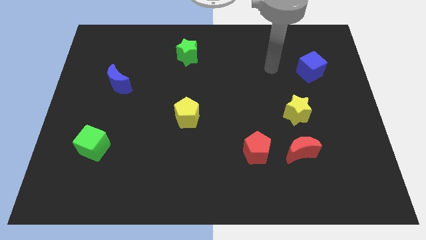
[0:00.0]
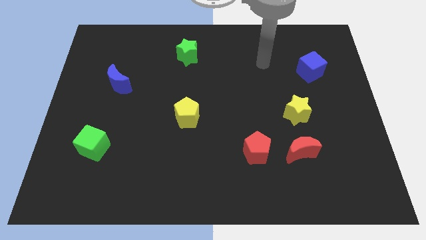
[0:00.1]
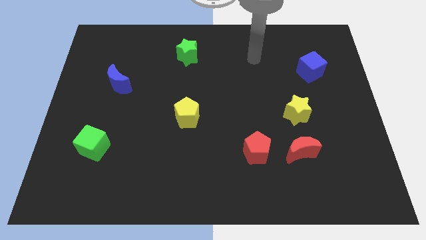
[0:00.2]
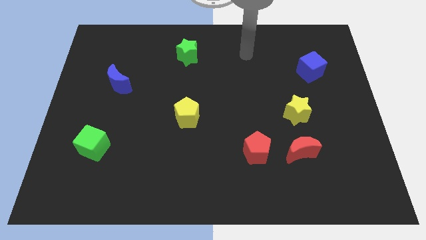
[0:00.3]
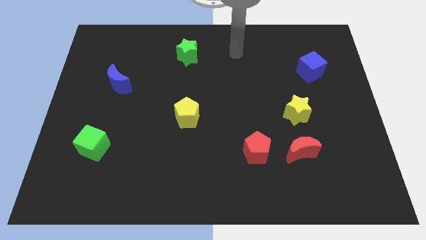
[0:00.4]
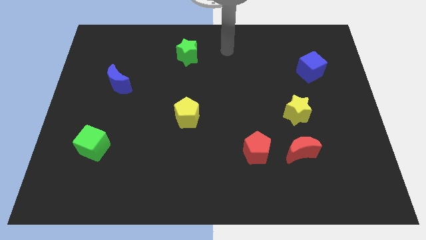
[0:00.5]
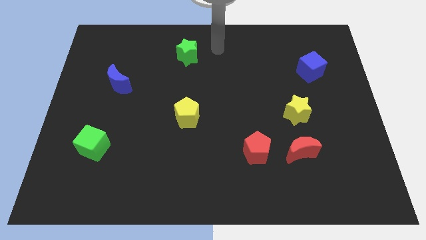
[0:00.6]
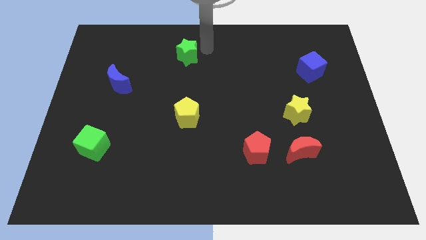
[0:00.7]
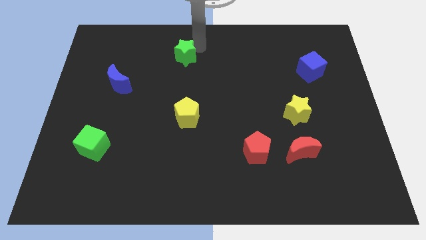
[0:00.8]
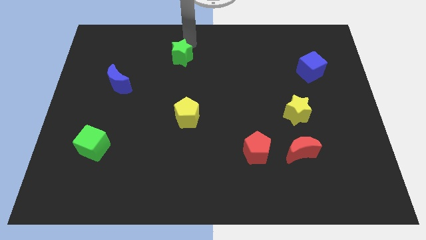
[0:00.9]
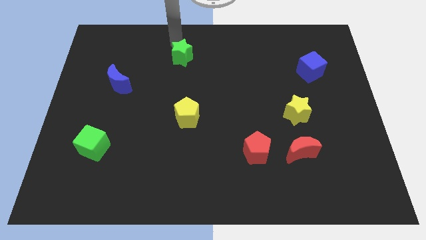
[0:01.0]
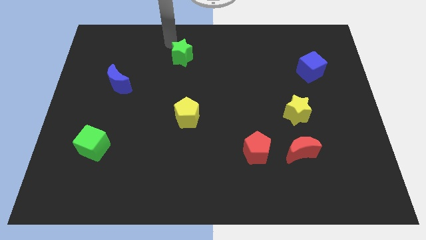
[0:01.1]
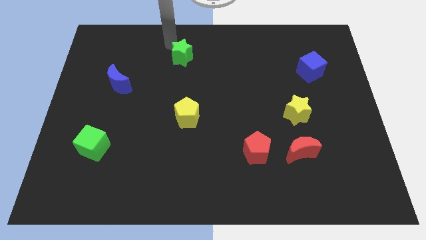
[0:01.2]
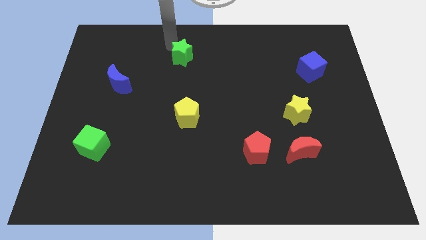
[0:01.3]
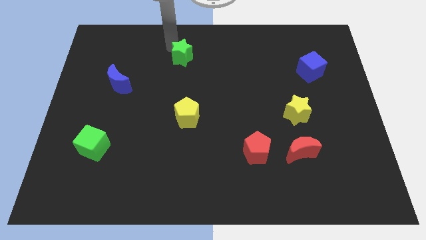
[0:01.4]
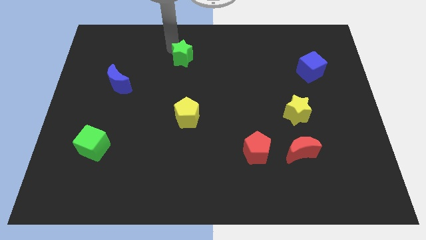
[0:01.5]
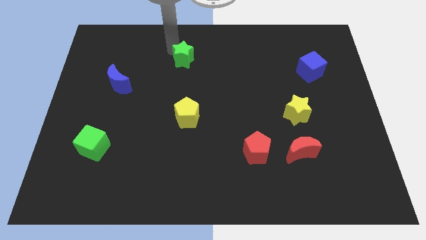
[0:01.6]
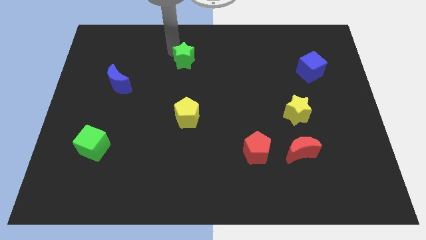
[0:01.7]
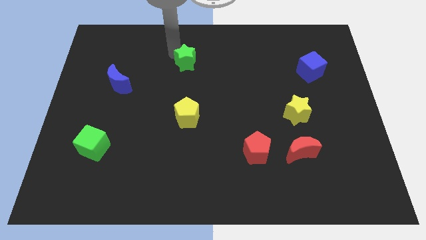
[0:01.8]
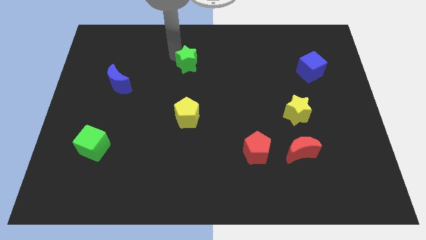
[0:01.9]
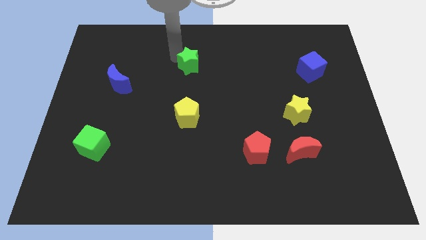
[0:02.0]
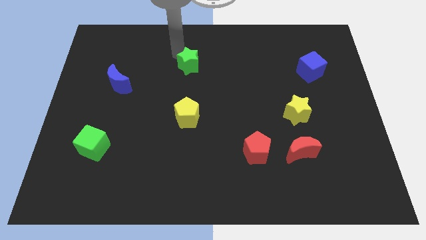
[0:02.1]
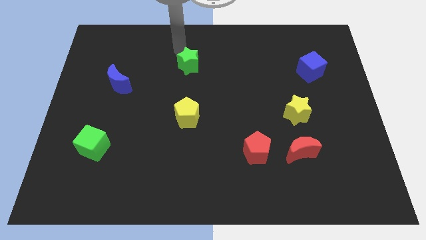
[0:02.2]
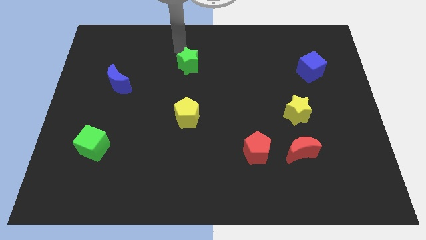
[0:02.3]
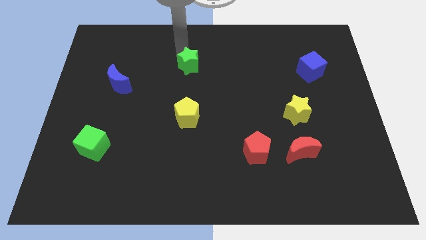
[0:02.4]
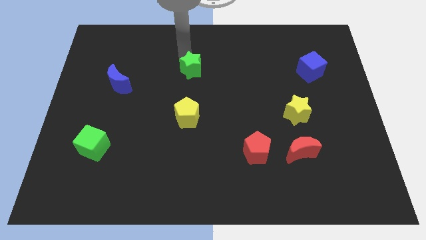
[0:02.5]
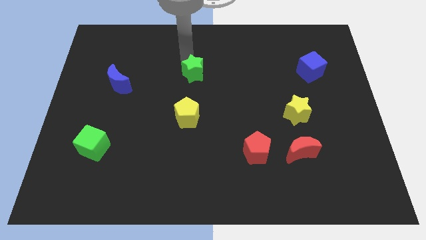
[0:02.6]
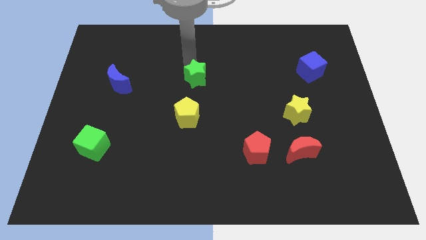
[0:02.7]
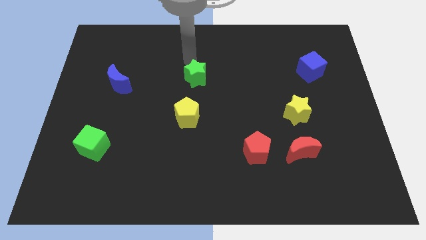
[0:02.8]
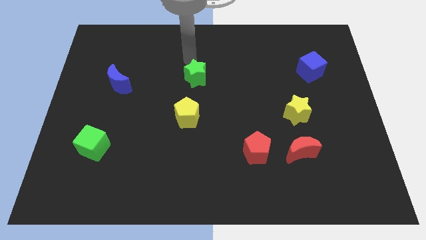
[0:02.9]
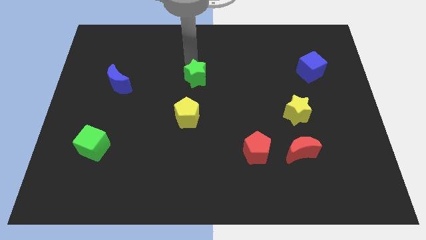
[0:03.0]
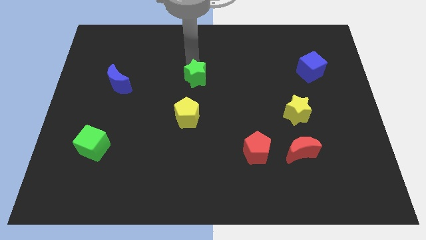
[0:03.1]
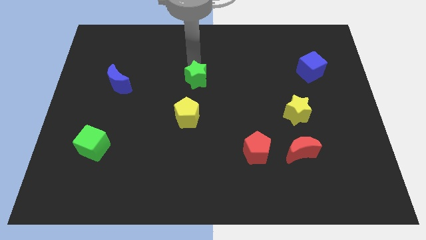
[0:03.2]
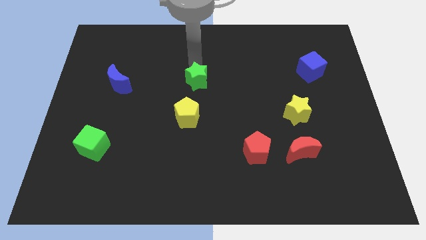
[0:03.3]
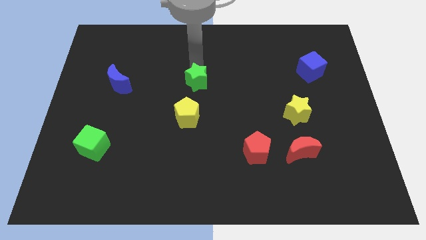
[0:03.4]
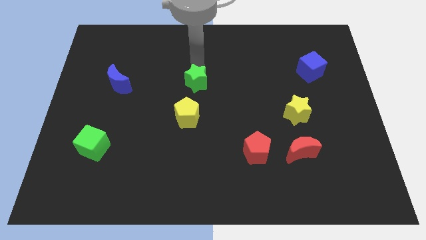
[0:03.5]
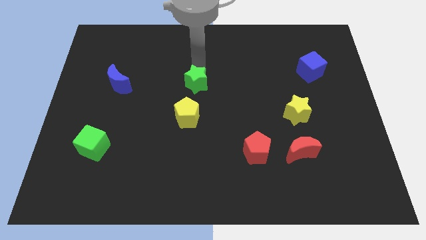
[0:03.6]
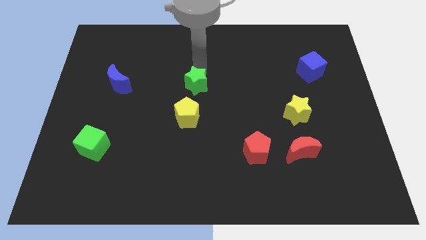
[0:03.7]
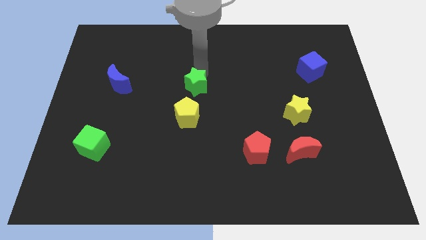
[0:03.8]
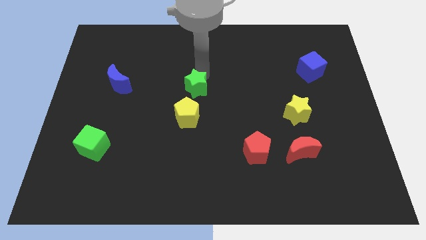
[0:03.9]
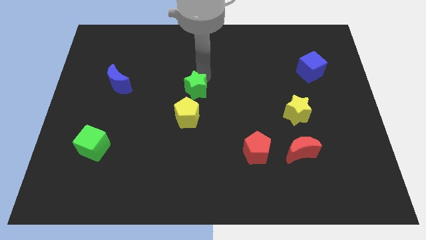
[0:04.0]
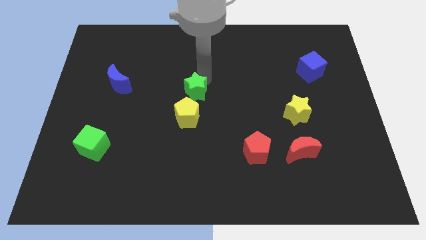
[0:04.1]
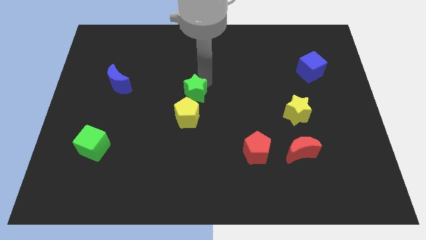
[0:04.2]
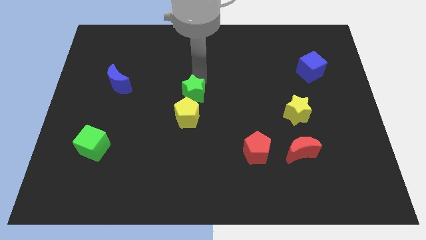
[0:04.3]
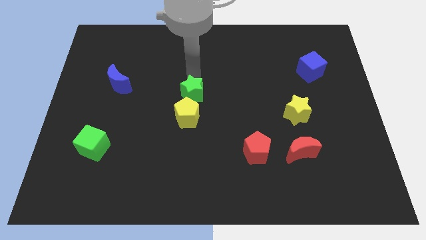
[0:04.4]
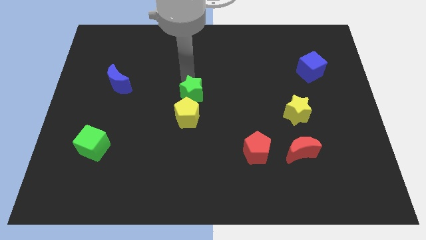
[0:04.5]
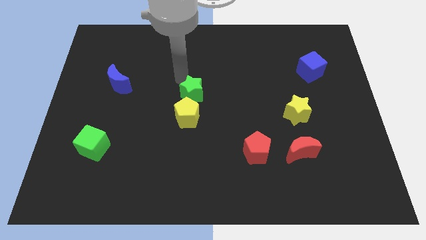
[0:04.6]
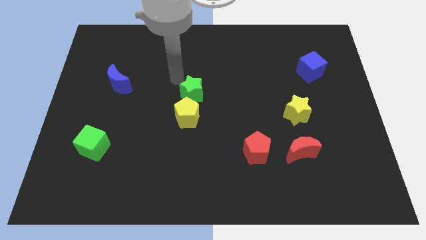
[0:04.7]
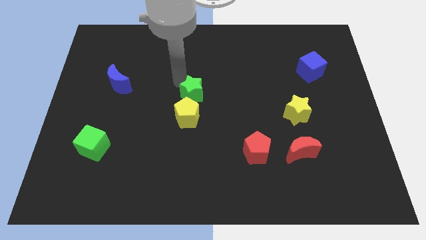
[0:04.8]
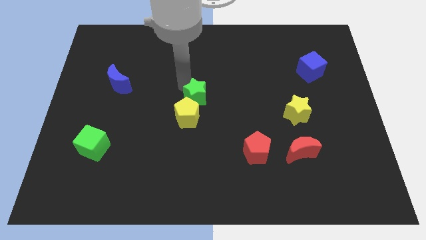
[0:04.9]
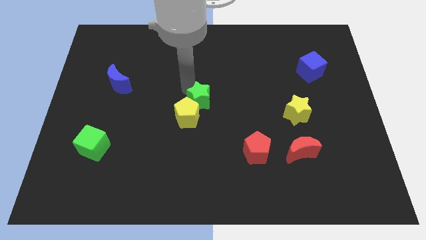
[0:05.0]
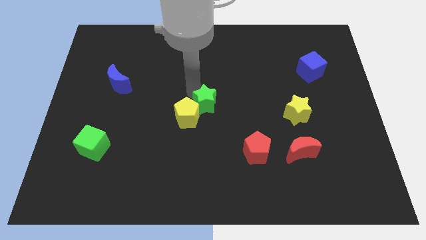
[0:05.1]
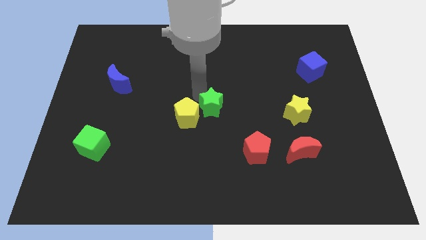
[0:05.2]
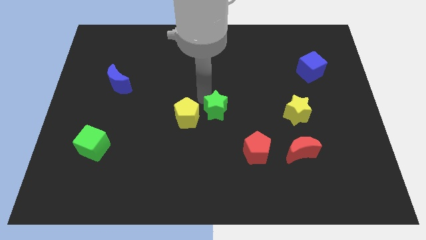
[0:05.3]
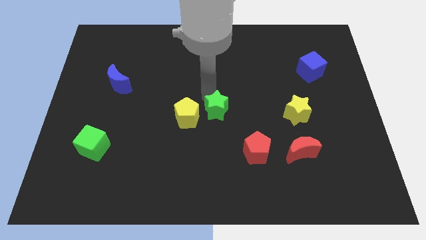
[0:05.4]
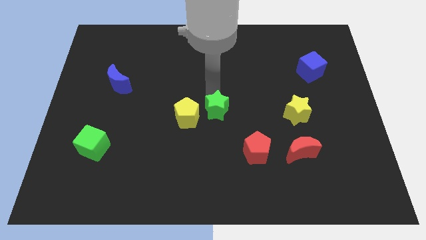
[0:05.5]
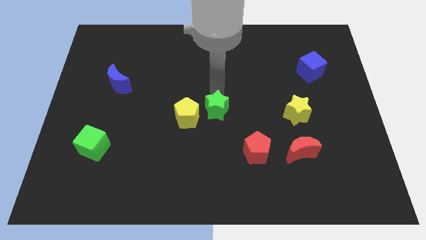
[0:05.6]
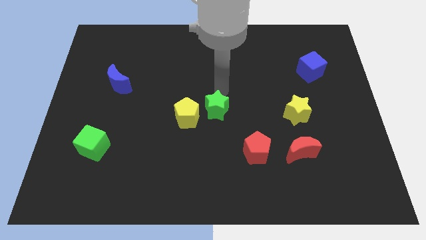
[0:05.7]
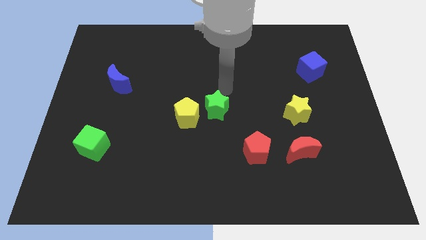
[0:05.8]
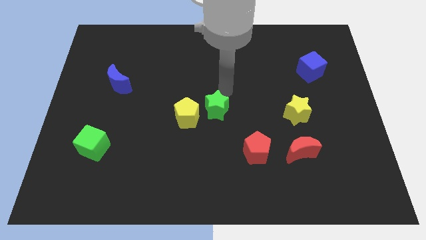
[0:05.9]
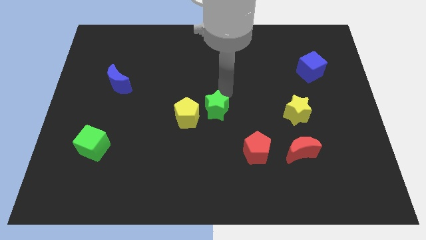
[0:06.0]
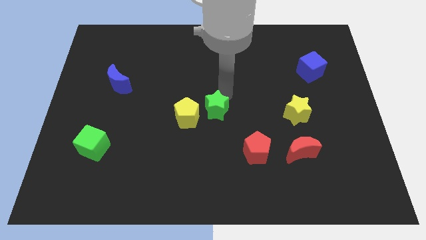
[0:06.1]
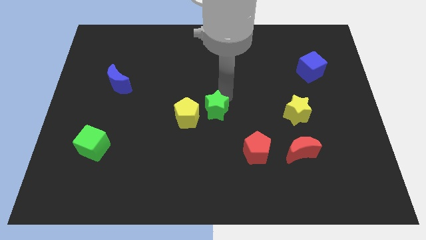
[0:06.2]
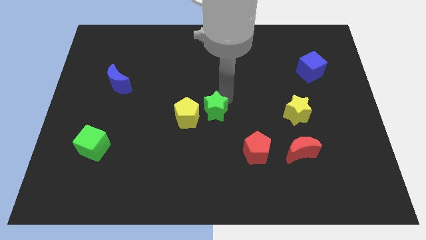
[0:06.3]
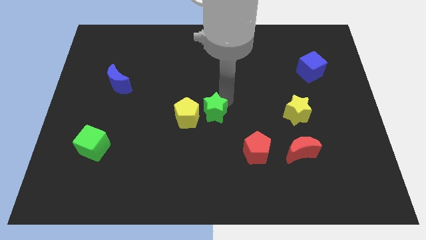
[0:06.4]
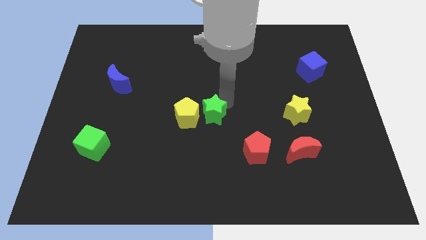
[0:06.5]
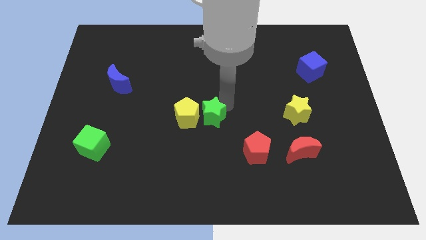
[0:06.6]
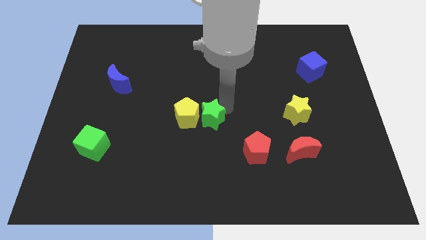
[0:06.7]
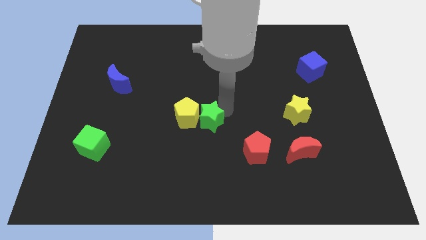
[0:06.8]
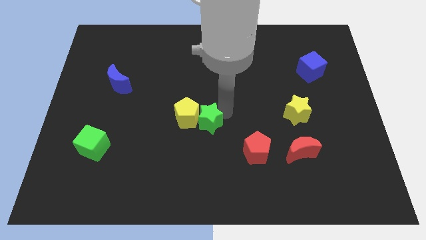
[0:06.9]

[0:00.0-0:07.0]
push the green star down

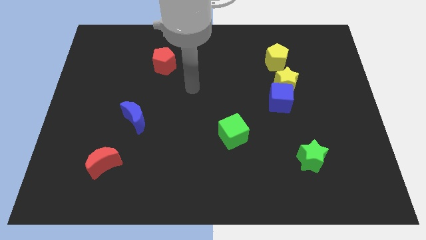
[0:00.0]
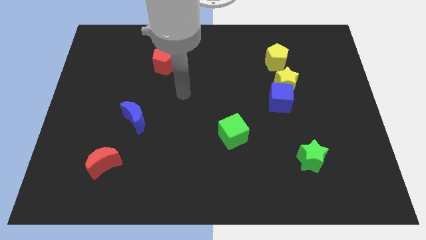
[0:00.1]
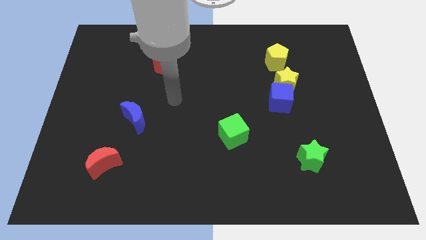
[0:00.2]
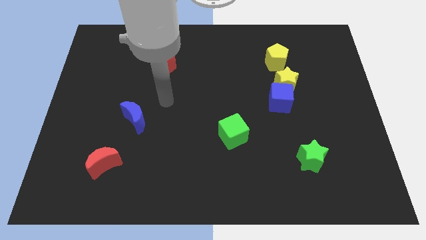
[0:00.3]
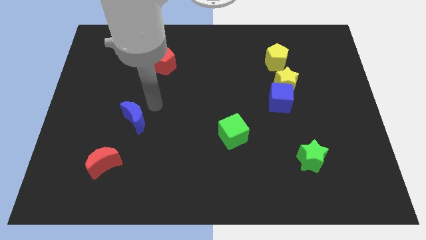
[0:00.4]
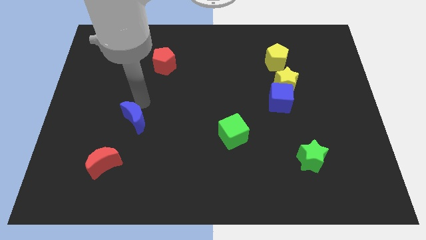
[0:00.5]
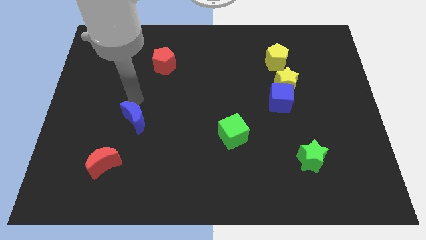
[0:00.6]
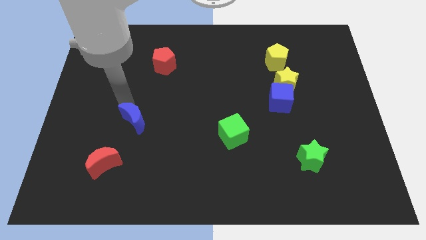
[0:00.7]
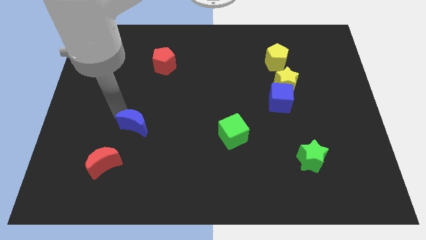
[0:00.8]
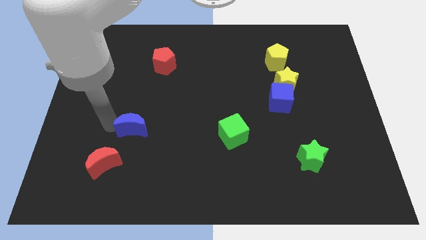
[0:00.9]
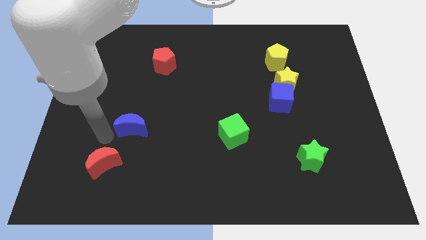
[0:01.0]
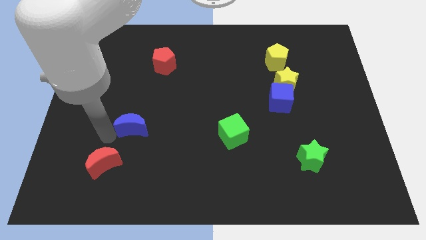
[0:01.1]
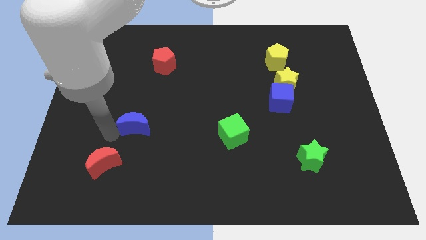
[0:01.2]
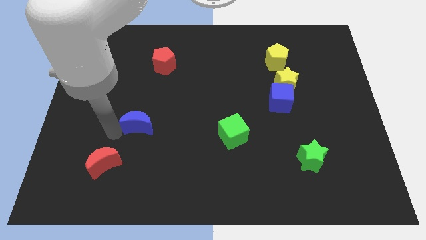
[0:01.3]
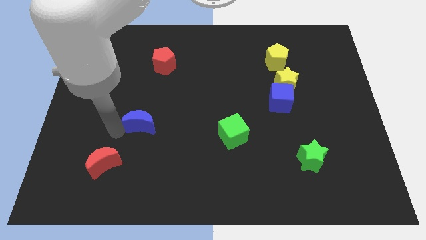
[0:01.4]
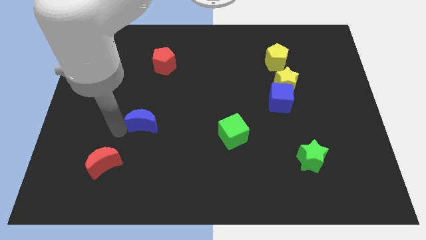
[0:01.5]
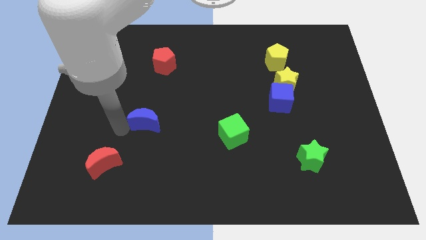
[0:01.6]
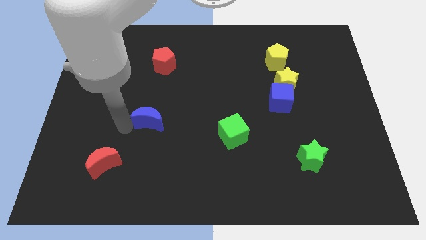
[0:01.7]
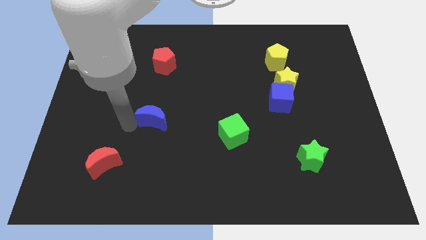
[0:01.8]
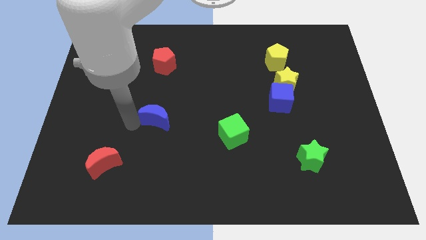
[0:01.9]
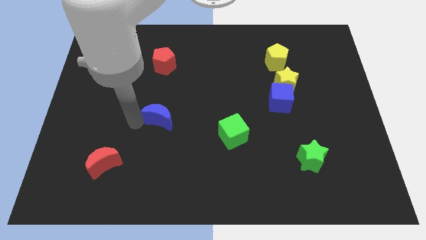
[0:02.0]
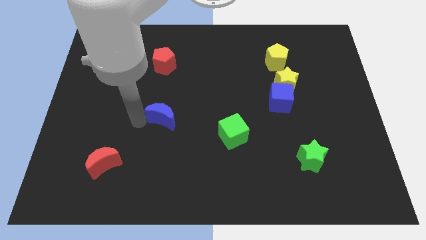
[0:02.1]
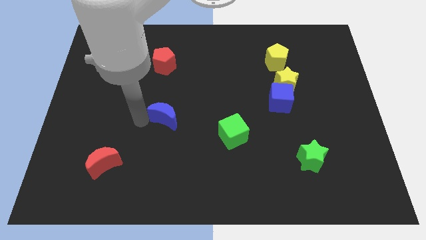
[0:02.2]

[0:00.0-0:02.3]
push the blue moon a little bit right
